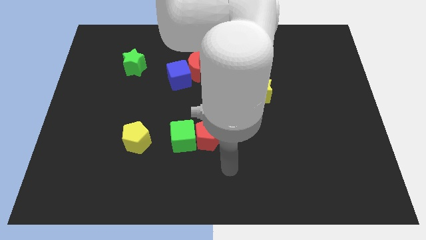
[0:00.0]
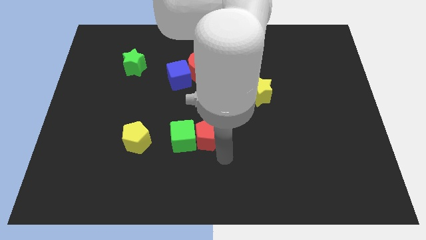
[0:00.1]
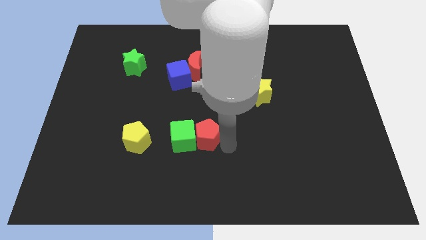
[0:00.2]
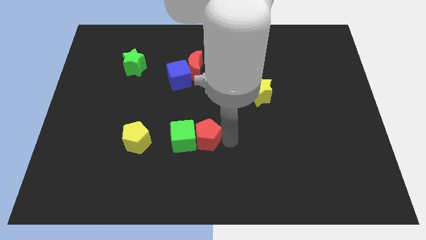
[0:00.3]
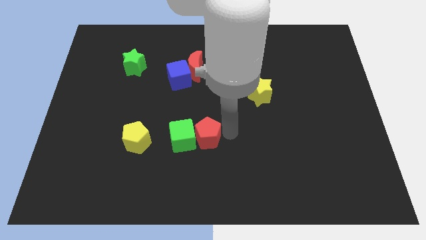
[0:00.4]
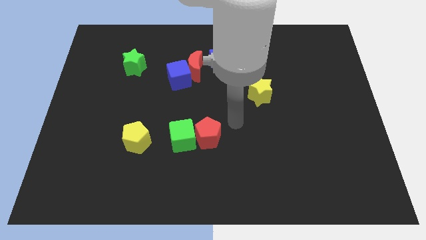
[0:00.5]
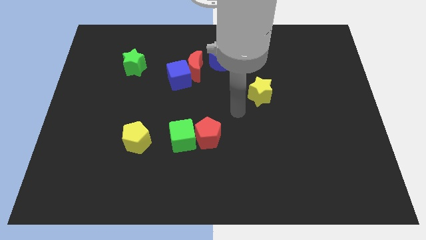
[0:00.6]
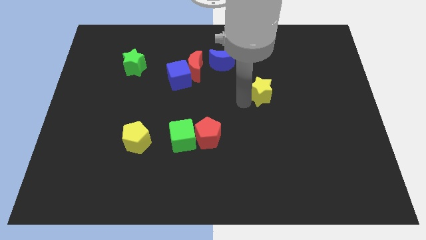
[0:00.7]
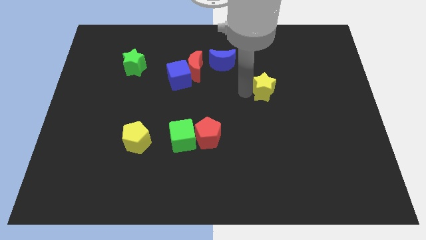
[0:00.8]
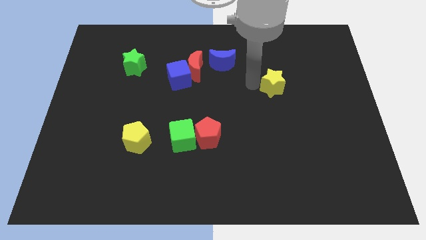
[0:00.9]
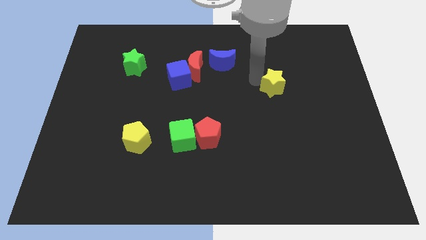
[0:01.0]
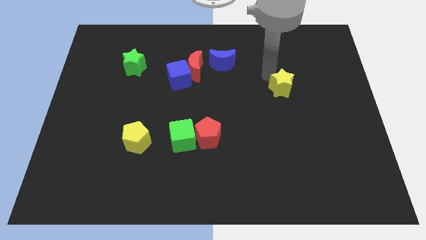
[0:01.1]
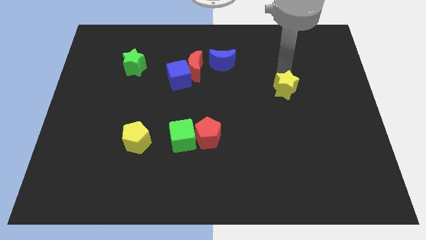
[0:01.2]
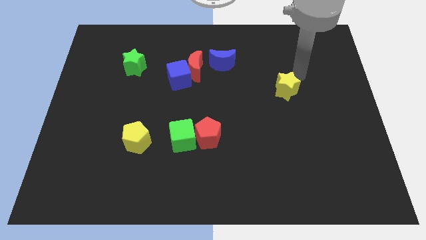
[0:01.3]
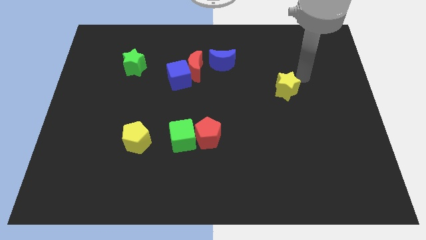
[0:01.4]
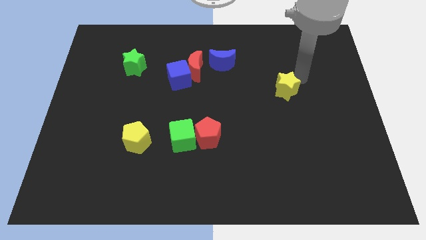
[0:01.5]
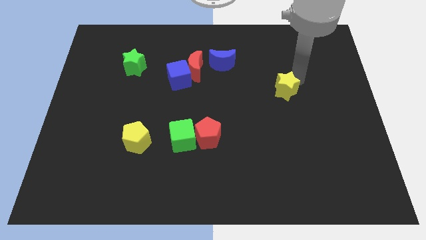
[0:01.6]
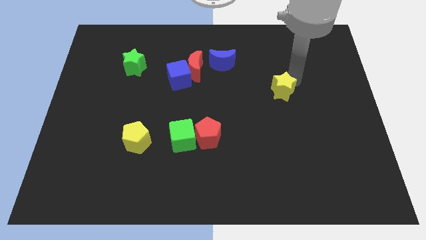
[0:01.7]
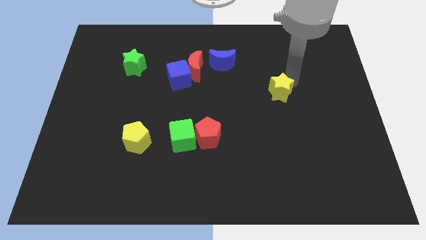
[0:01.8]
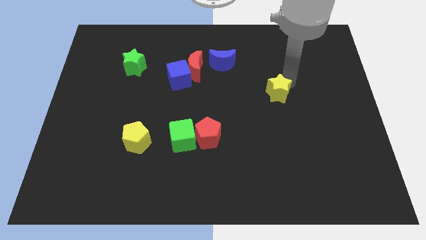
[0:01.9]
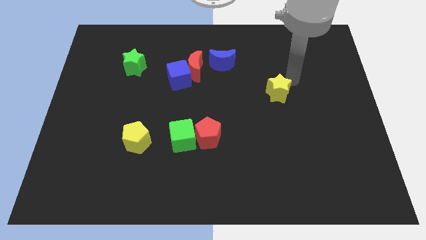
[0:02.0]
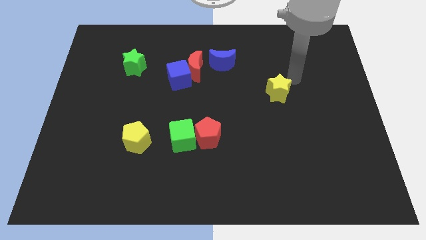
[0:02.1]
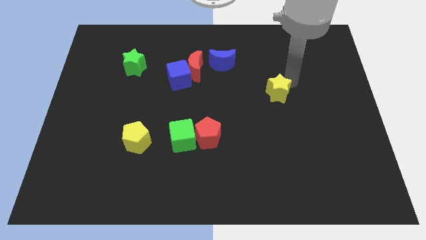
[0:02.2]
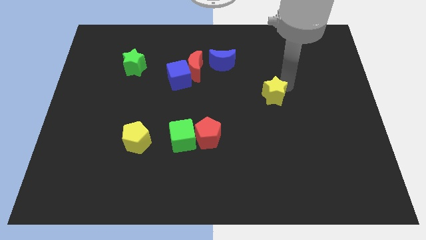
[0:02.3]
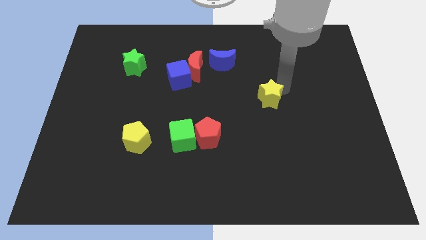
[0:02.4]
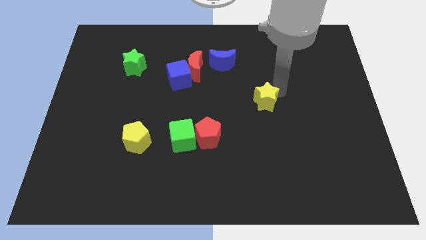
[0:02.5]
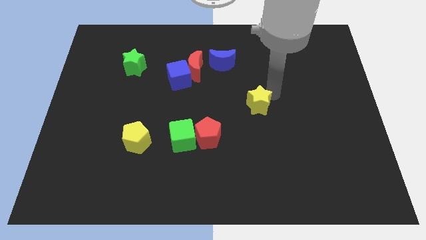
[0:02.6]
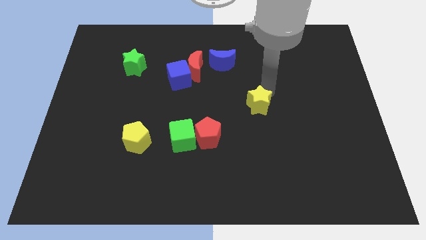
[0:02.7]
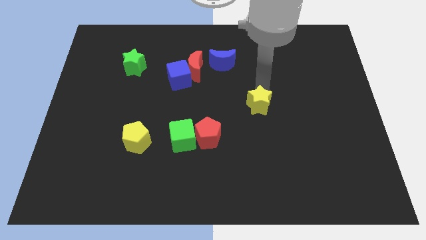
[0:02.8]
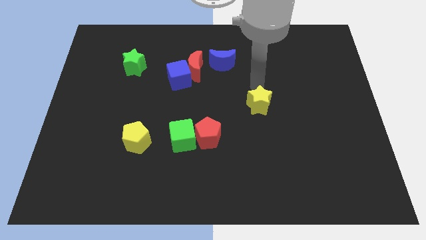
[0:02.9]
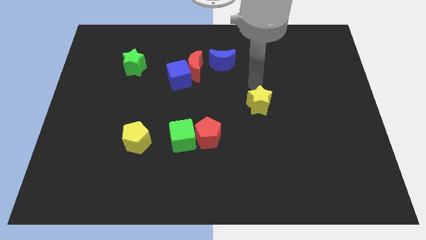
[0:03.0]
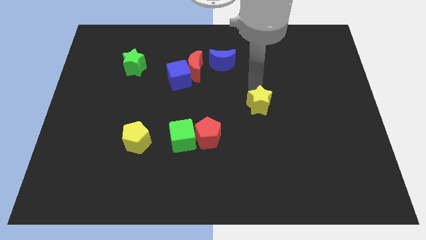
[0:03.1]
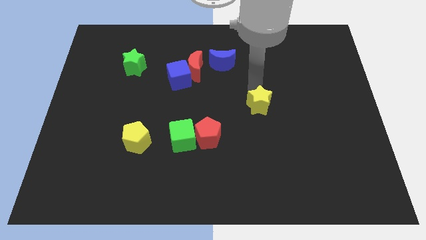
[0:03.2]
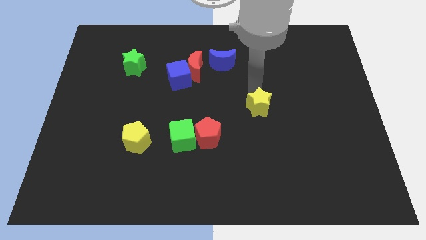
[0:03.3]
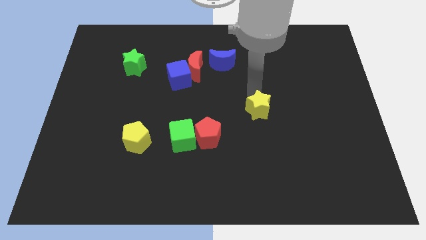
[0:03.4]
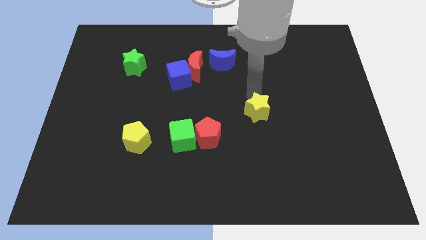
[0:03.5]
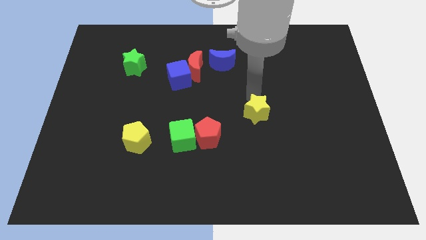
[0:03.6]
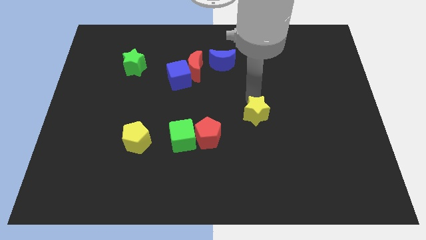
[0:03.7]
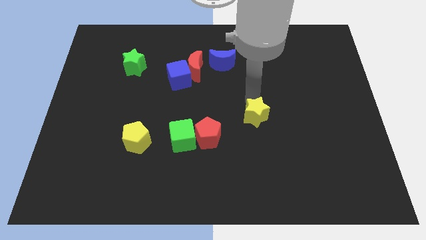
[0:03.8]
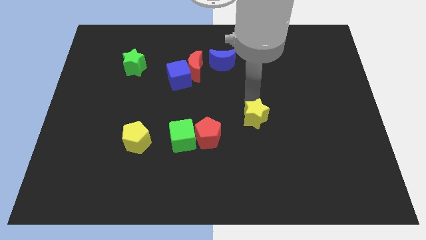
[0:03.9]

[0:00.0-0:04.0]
move the yellow star downwards somewhat

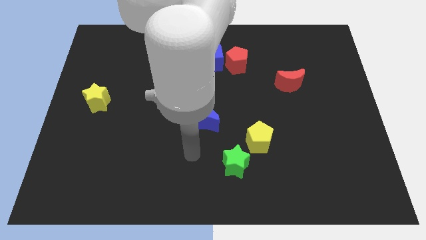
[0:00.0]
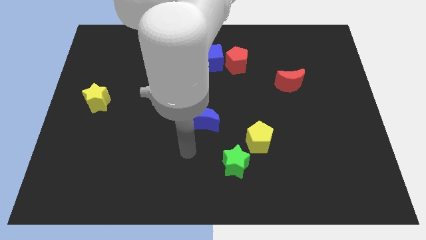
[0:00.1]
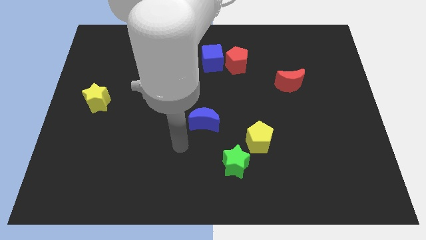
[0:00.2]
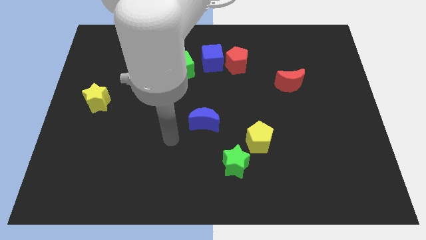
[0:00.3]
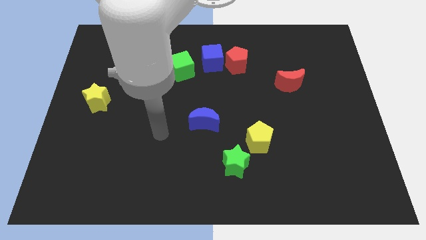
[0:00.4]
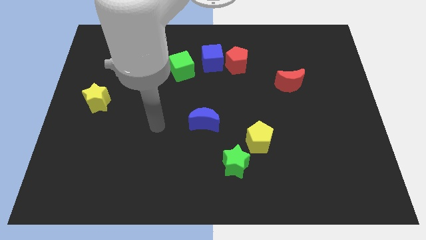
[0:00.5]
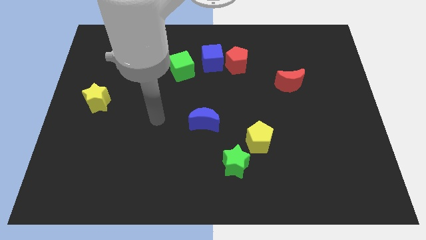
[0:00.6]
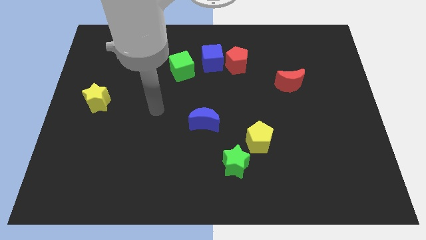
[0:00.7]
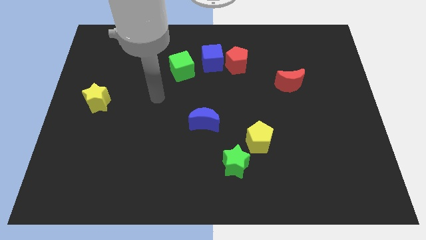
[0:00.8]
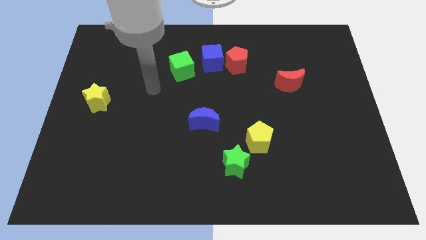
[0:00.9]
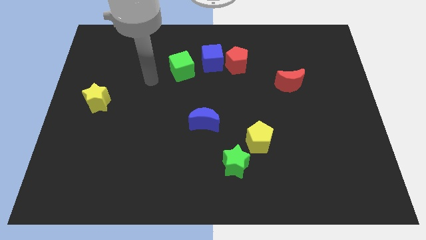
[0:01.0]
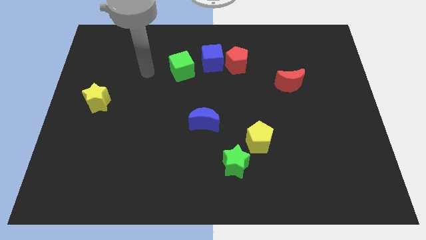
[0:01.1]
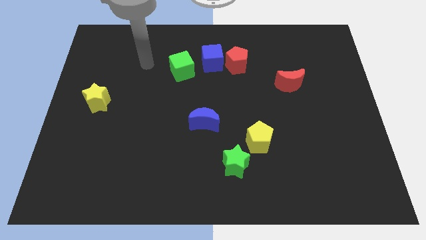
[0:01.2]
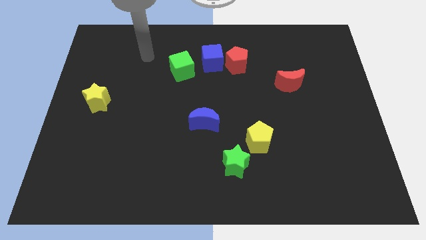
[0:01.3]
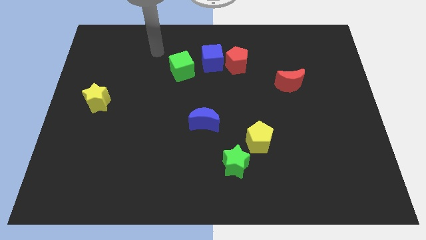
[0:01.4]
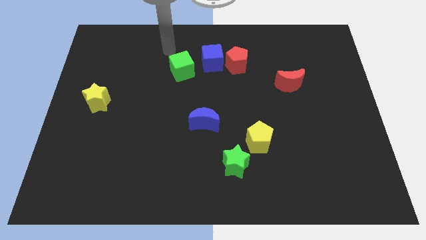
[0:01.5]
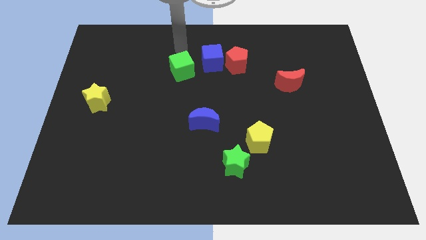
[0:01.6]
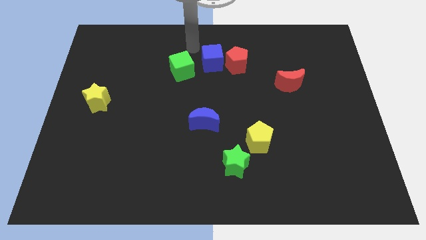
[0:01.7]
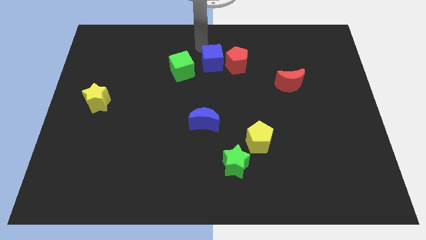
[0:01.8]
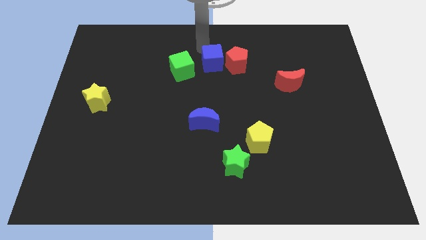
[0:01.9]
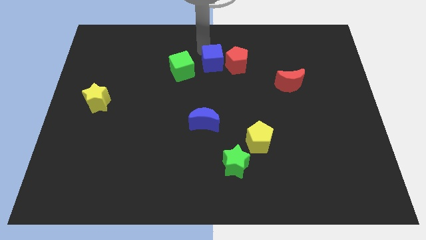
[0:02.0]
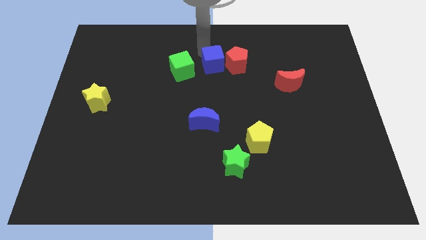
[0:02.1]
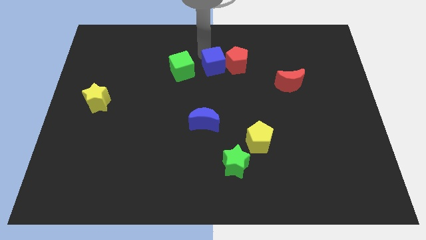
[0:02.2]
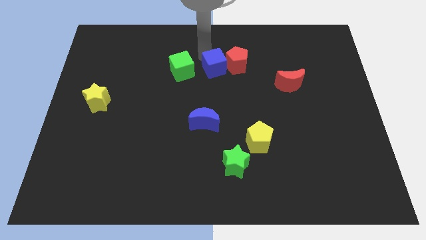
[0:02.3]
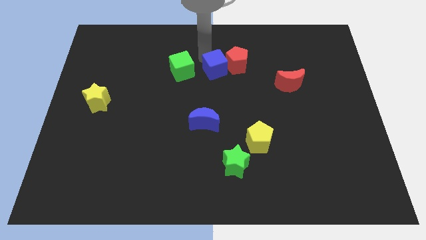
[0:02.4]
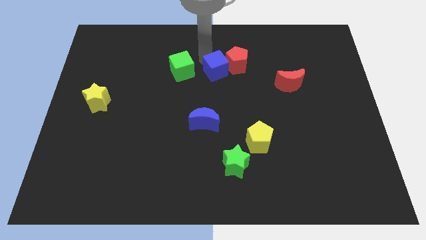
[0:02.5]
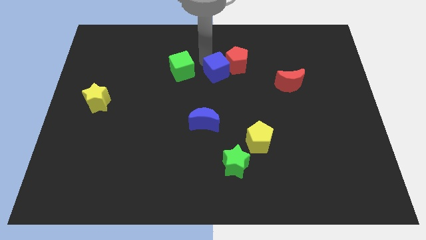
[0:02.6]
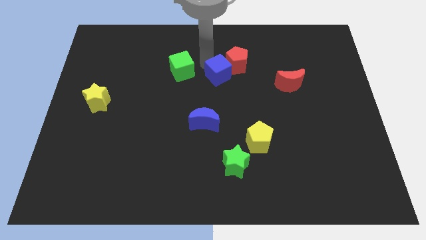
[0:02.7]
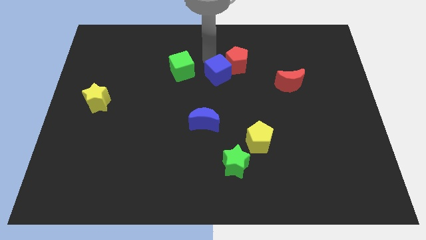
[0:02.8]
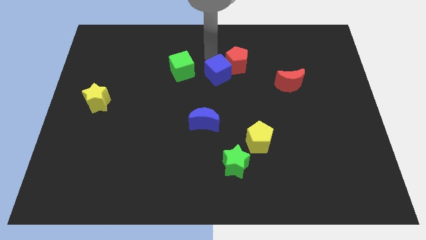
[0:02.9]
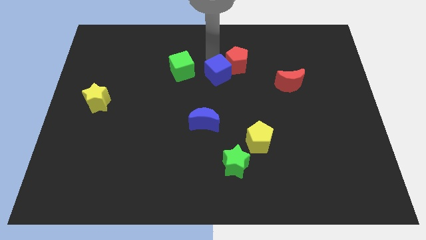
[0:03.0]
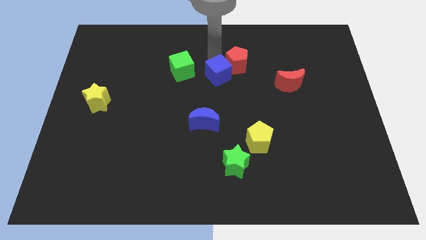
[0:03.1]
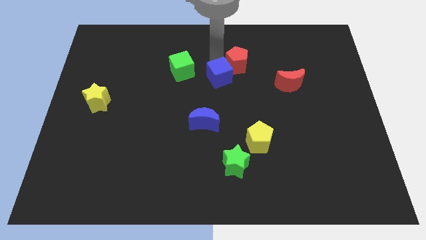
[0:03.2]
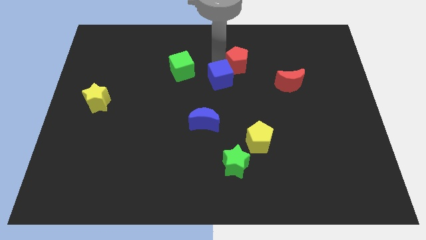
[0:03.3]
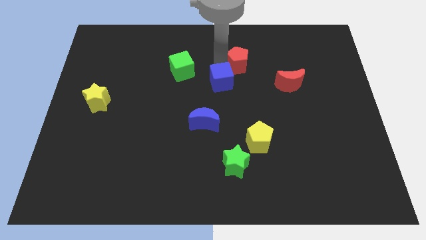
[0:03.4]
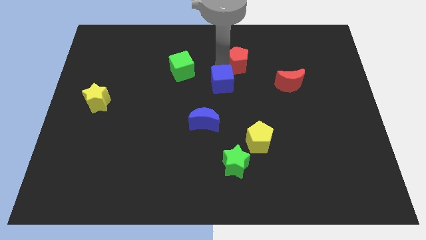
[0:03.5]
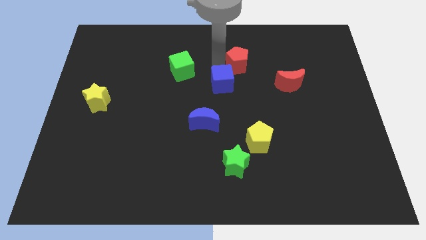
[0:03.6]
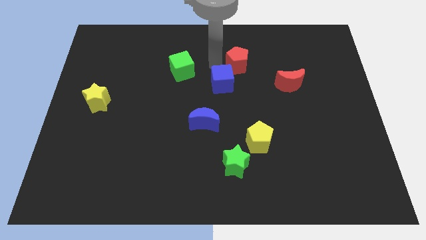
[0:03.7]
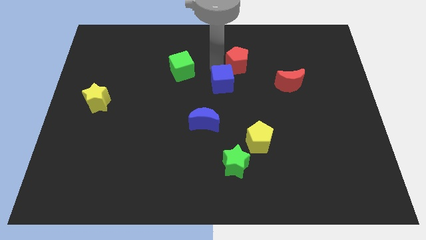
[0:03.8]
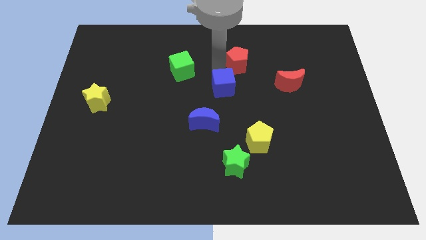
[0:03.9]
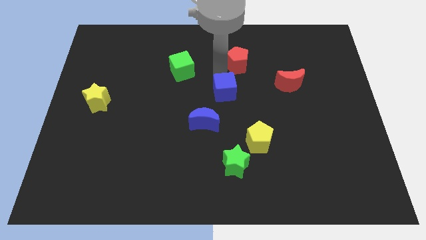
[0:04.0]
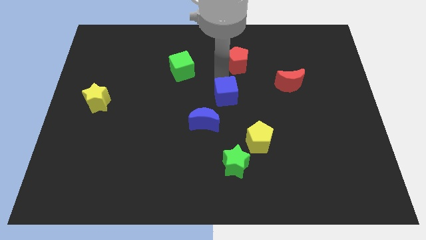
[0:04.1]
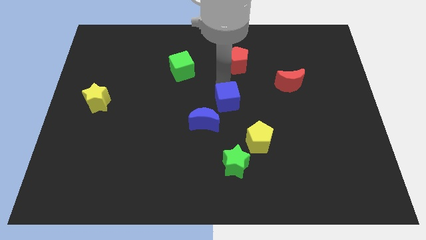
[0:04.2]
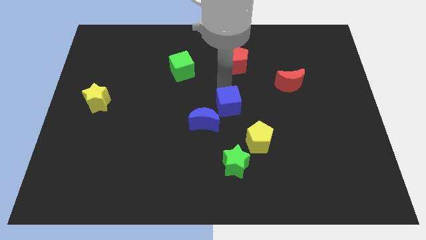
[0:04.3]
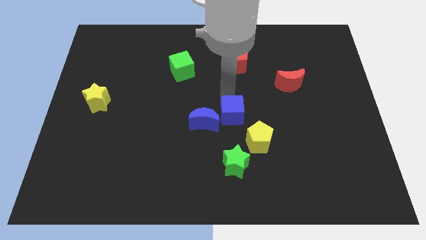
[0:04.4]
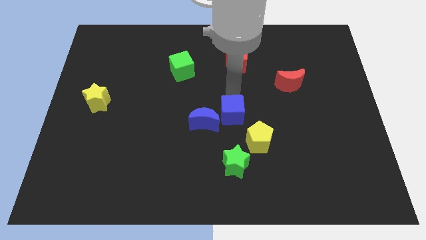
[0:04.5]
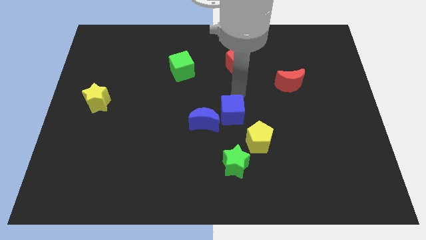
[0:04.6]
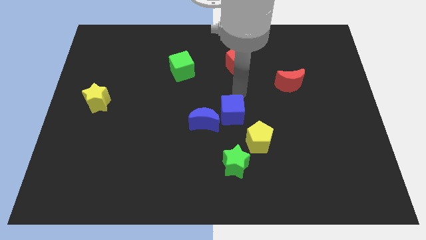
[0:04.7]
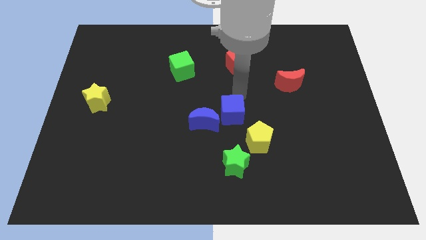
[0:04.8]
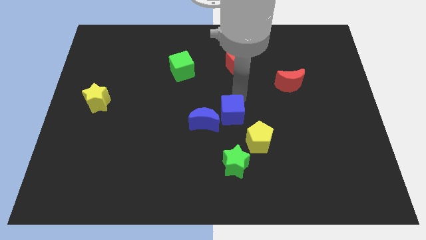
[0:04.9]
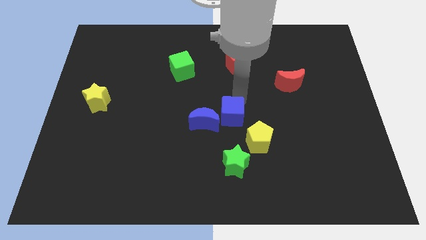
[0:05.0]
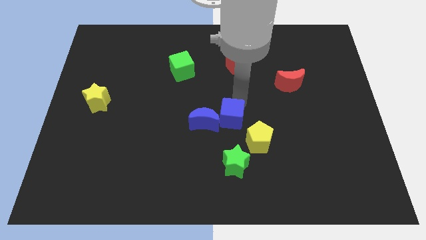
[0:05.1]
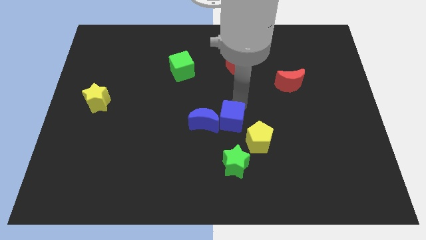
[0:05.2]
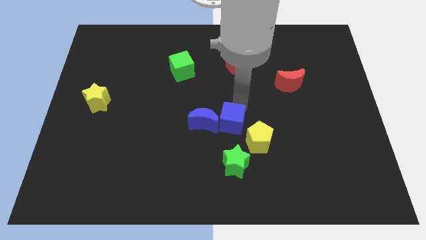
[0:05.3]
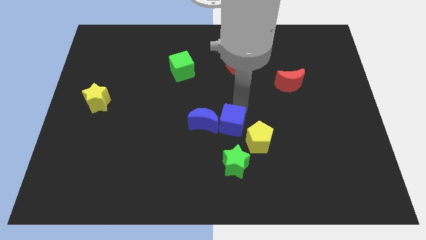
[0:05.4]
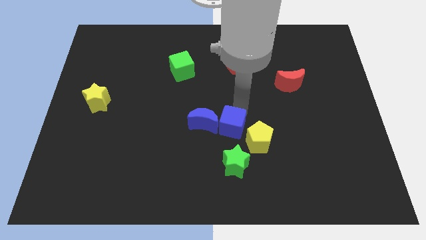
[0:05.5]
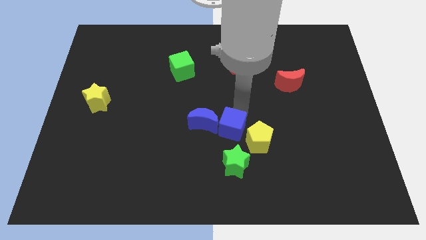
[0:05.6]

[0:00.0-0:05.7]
move the blue cube downwards
